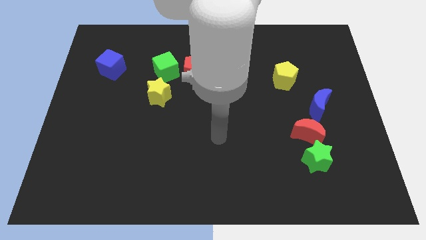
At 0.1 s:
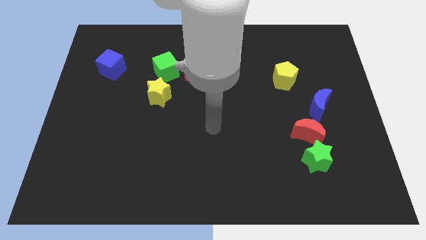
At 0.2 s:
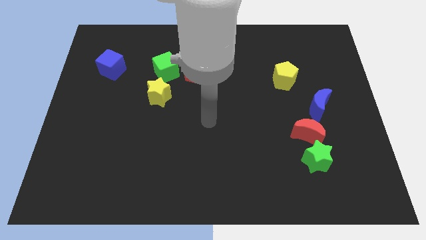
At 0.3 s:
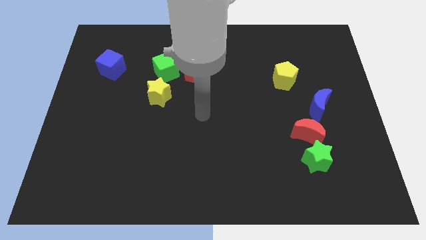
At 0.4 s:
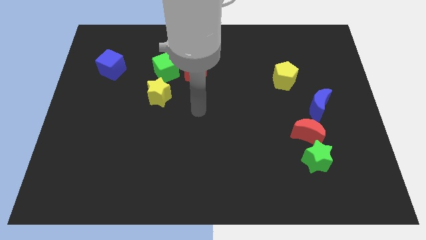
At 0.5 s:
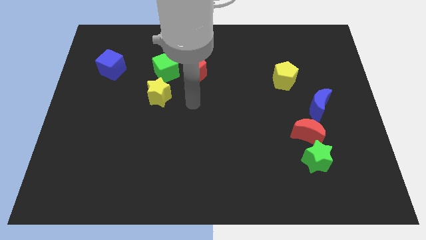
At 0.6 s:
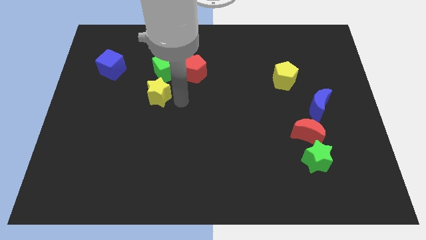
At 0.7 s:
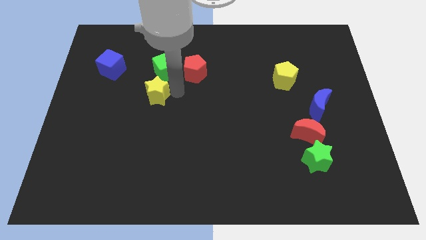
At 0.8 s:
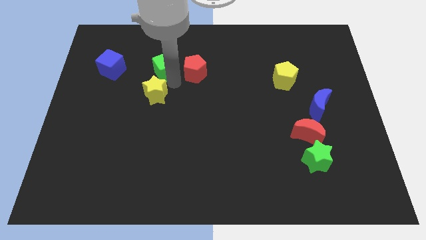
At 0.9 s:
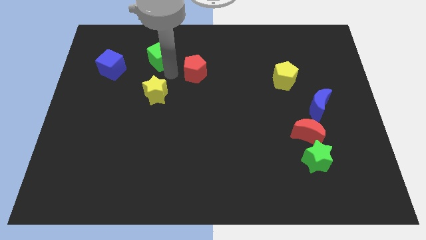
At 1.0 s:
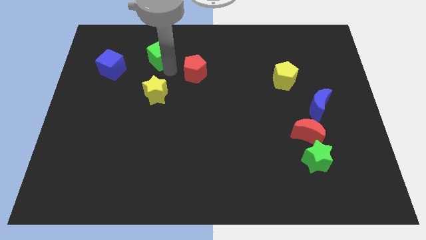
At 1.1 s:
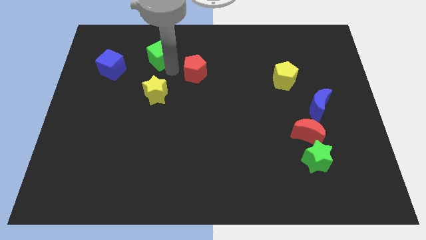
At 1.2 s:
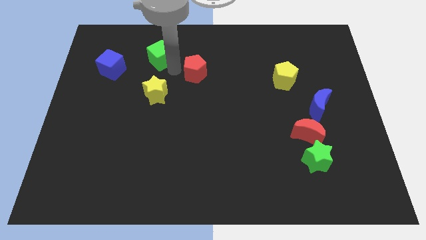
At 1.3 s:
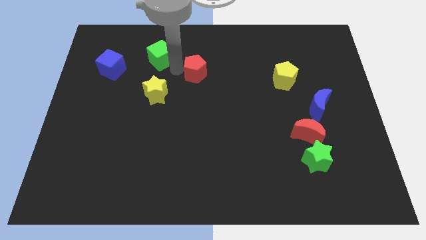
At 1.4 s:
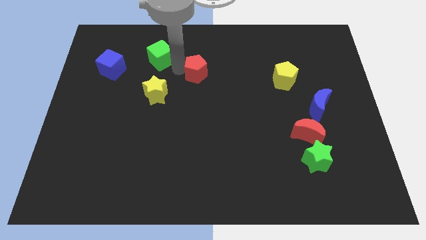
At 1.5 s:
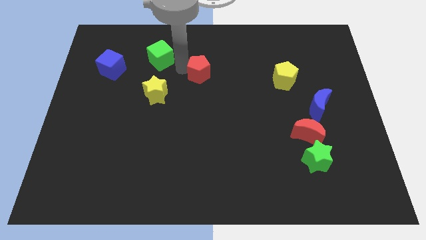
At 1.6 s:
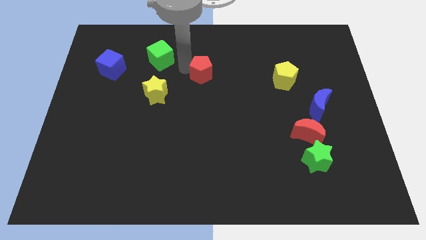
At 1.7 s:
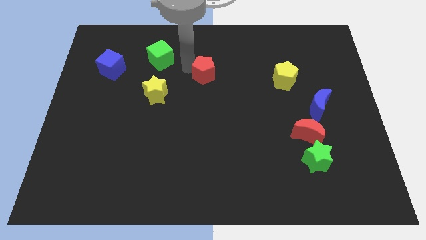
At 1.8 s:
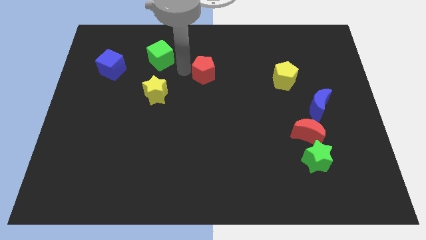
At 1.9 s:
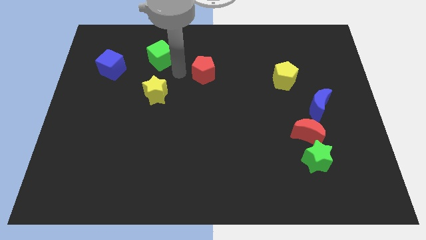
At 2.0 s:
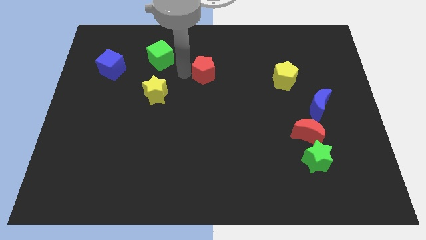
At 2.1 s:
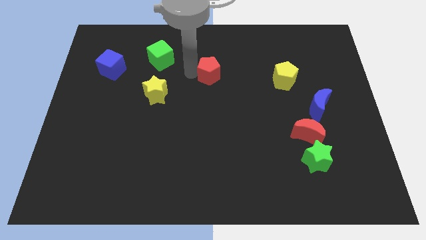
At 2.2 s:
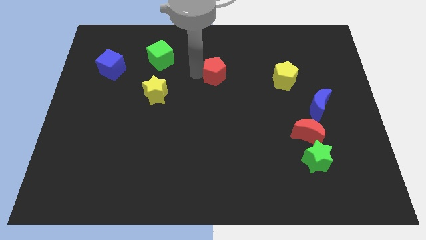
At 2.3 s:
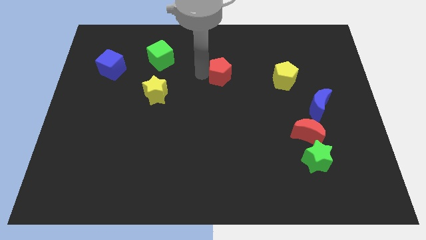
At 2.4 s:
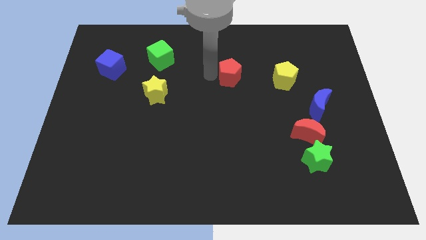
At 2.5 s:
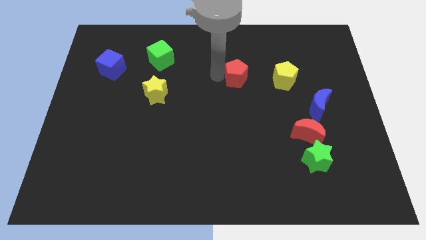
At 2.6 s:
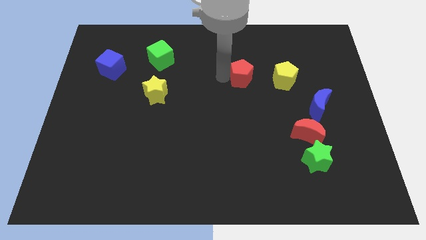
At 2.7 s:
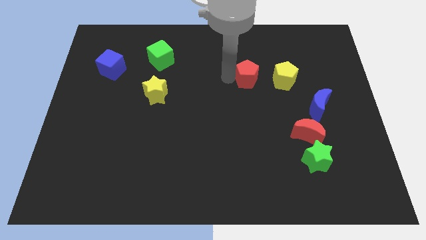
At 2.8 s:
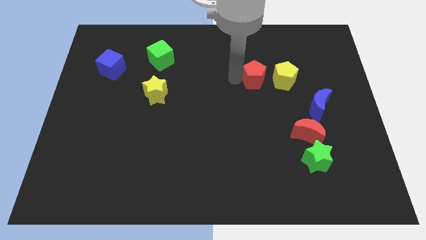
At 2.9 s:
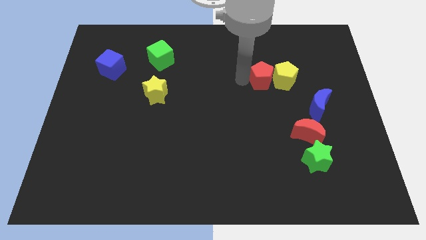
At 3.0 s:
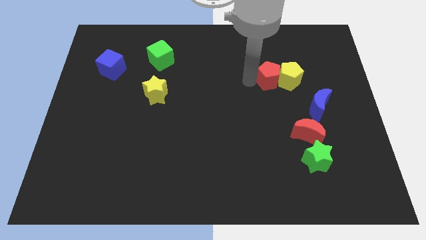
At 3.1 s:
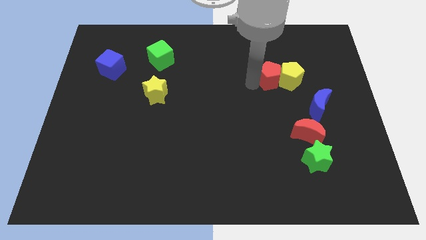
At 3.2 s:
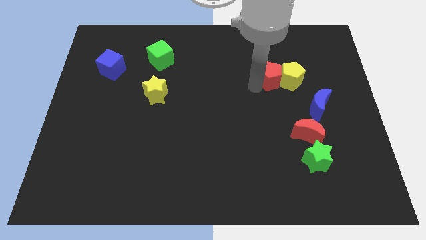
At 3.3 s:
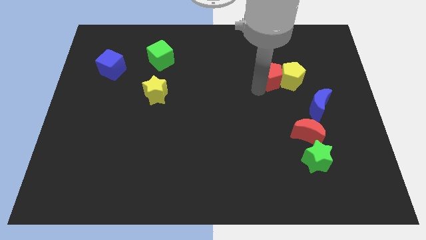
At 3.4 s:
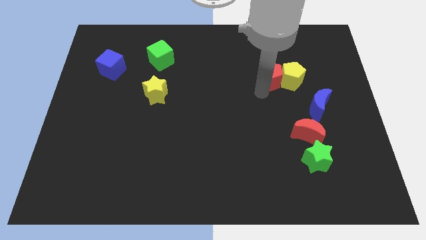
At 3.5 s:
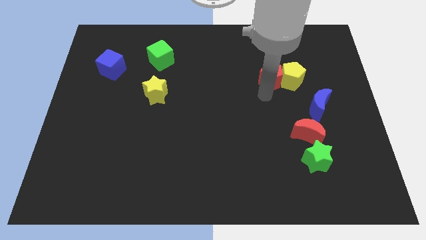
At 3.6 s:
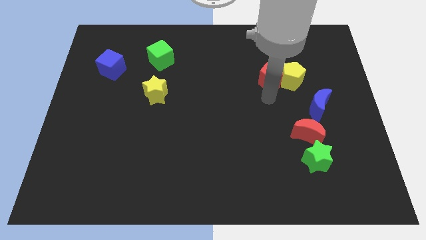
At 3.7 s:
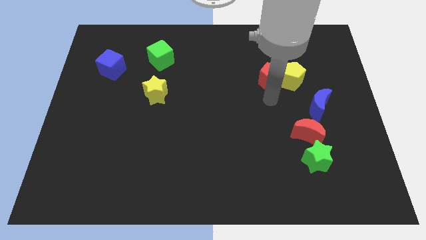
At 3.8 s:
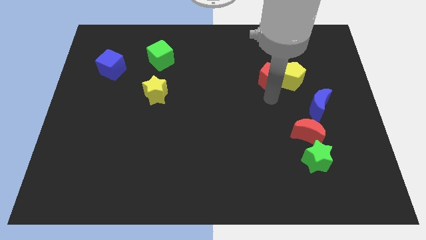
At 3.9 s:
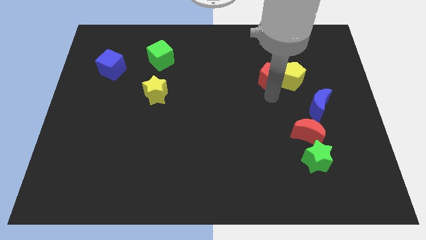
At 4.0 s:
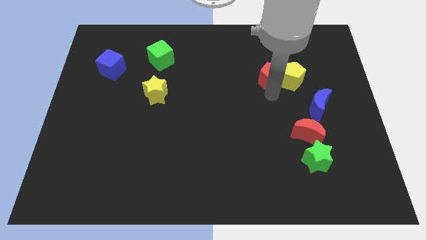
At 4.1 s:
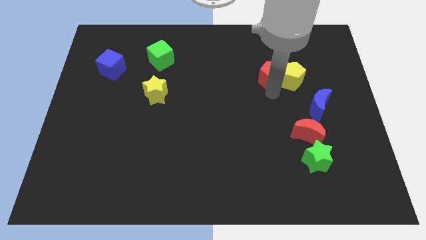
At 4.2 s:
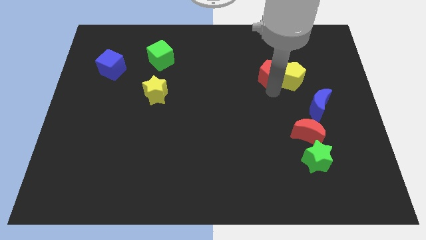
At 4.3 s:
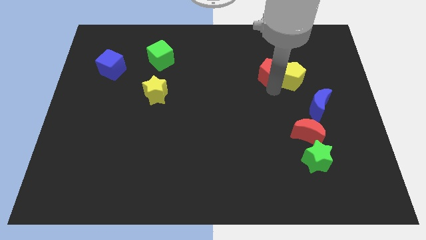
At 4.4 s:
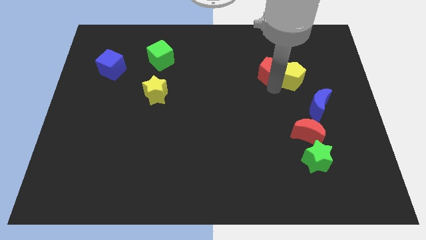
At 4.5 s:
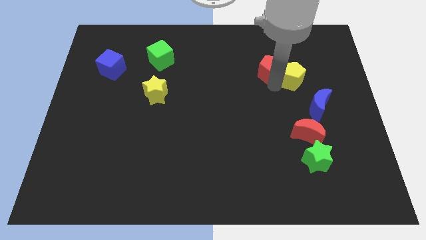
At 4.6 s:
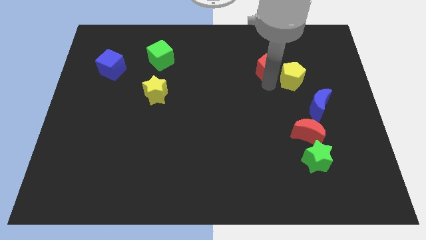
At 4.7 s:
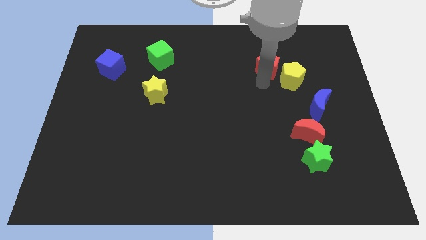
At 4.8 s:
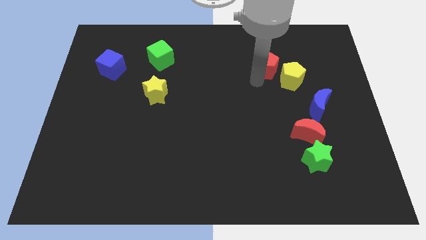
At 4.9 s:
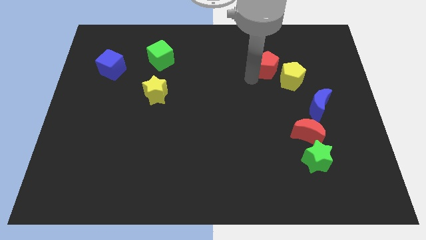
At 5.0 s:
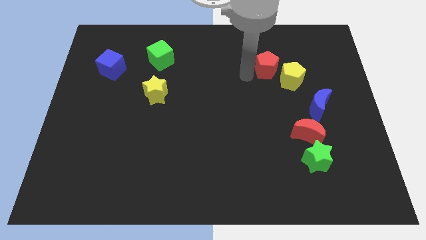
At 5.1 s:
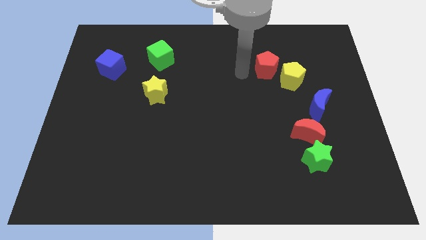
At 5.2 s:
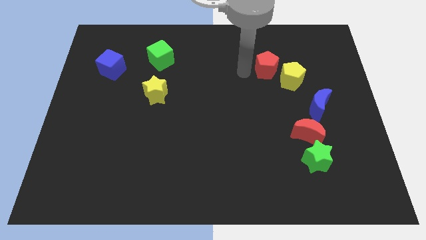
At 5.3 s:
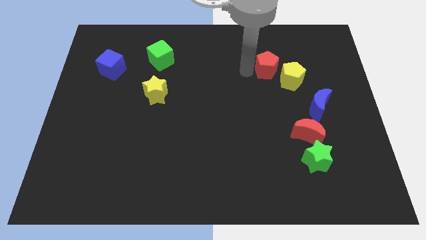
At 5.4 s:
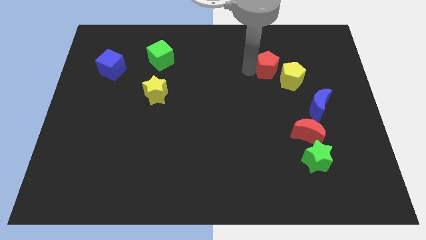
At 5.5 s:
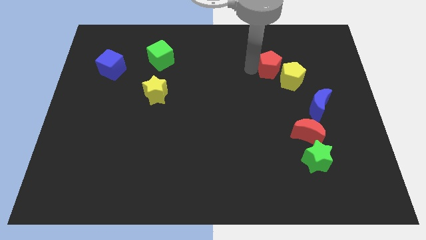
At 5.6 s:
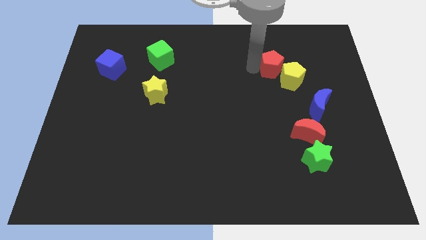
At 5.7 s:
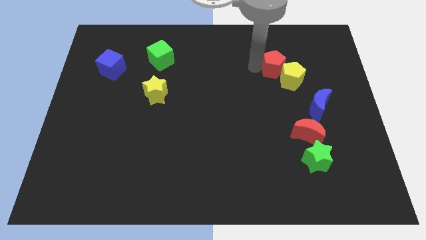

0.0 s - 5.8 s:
slide the red pentagon to the right

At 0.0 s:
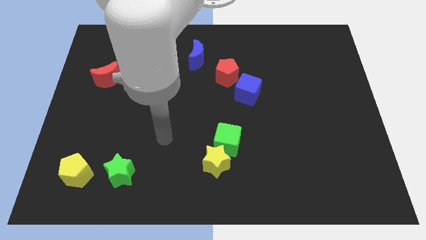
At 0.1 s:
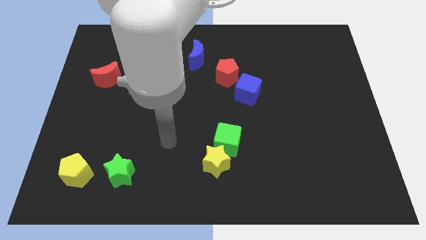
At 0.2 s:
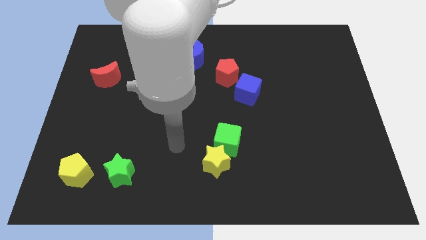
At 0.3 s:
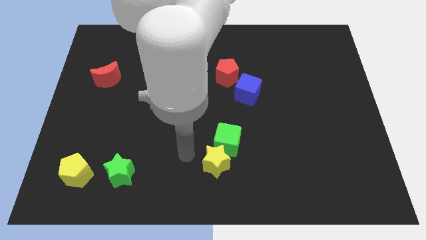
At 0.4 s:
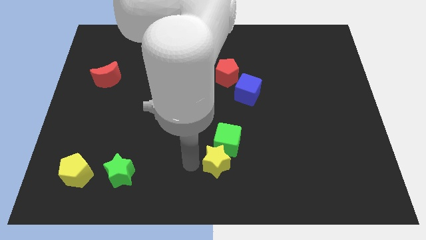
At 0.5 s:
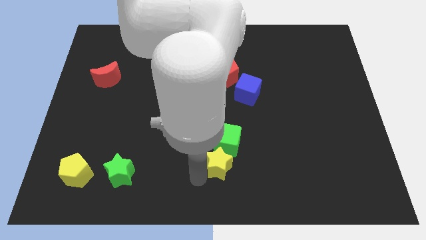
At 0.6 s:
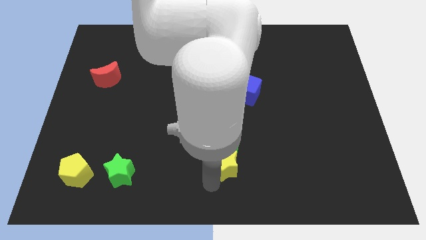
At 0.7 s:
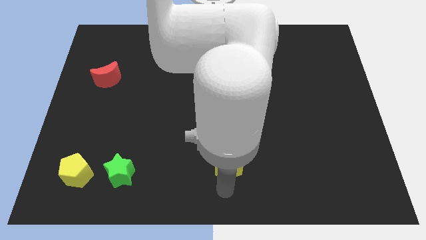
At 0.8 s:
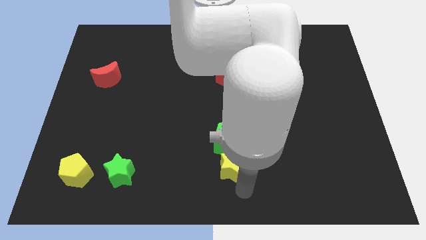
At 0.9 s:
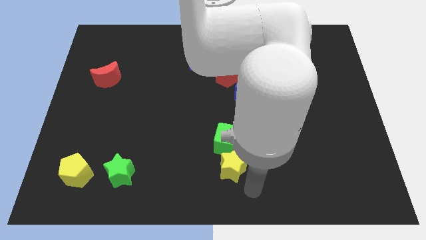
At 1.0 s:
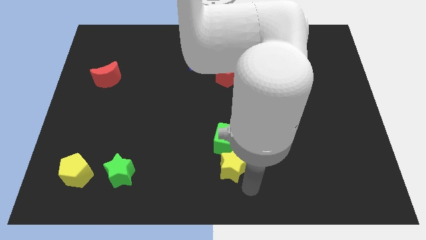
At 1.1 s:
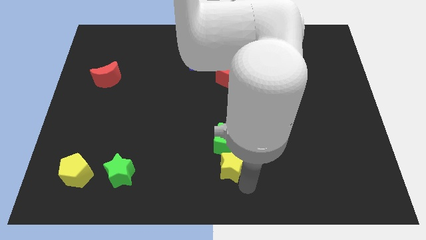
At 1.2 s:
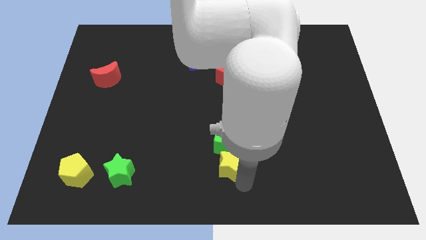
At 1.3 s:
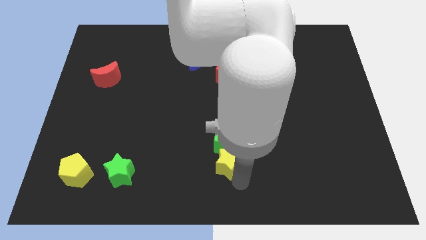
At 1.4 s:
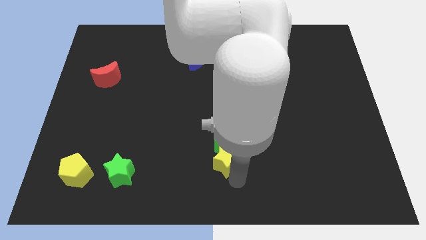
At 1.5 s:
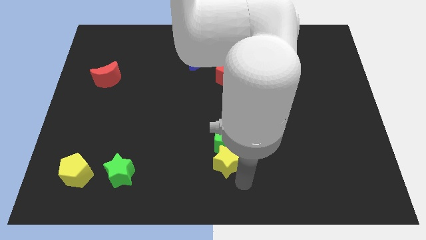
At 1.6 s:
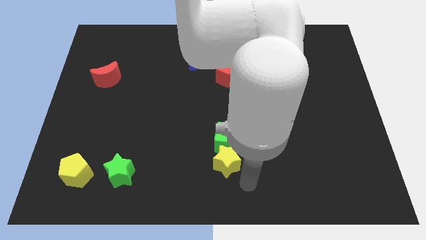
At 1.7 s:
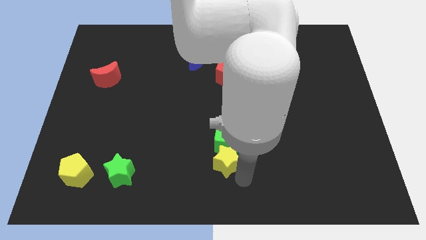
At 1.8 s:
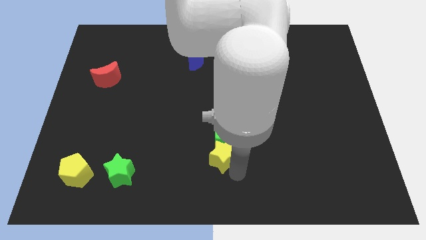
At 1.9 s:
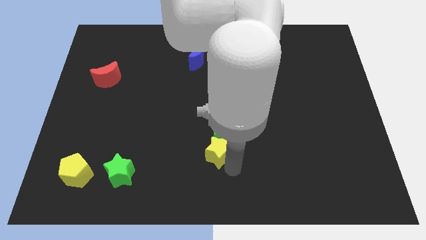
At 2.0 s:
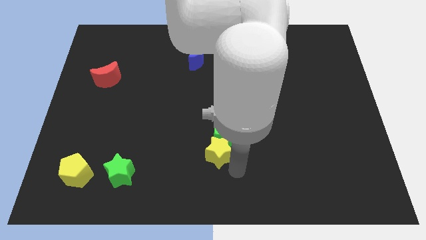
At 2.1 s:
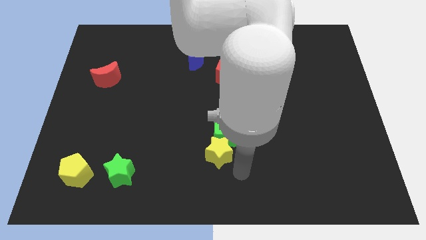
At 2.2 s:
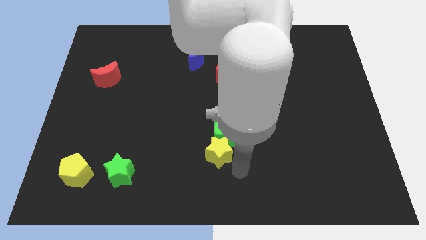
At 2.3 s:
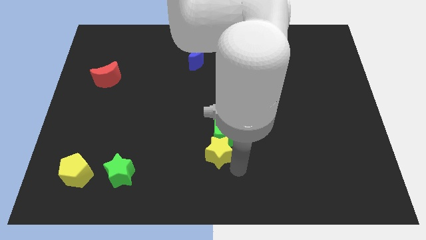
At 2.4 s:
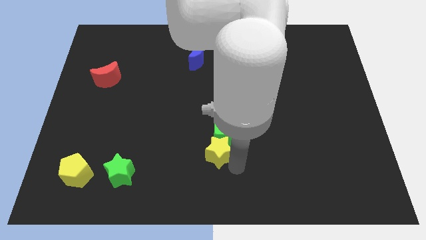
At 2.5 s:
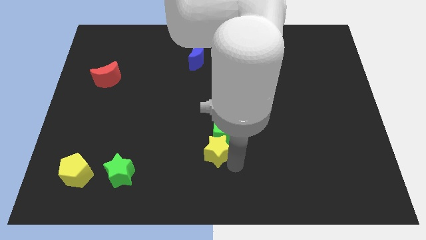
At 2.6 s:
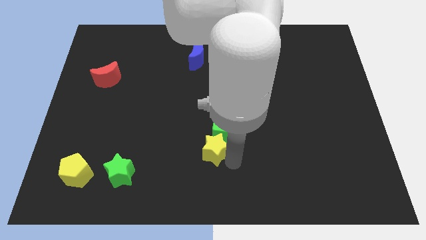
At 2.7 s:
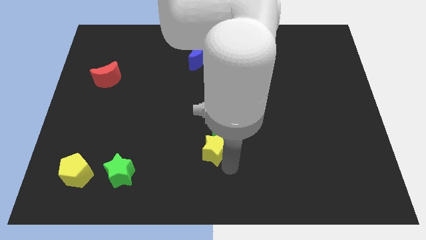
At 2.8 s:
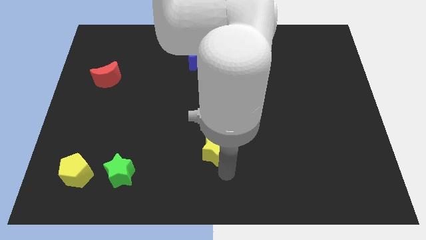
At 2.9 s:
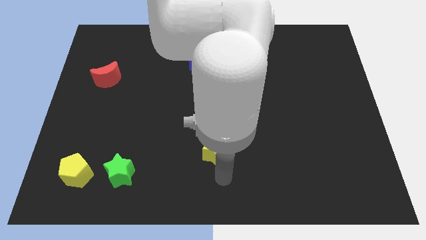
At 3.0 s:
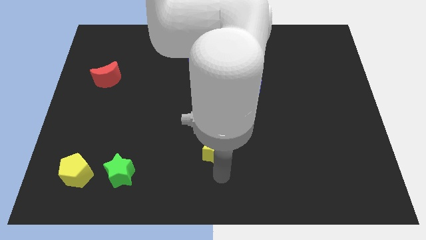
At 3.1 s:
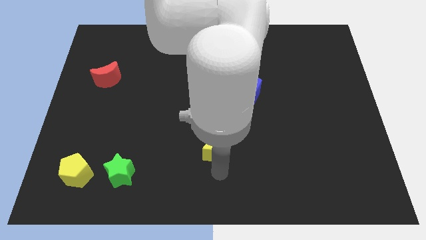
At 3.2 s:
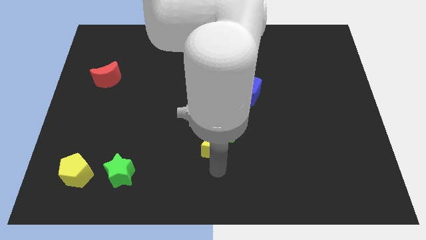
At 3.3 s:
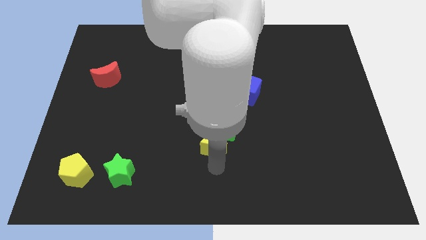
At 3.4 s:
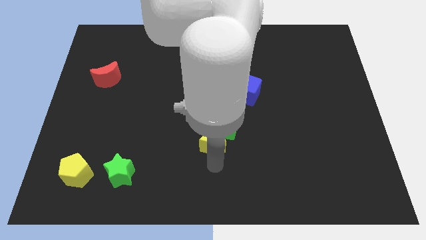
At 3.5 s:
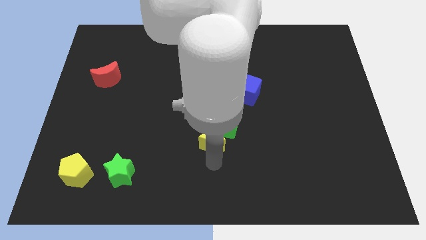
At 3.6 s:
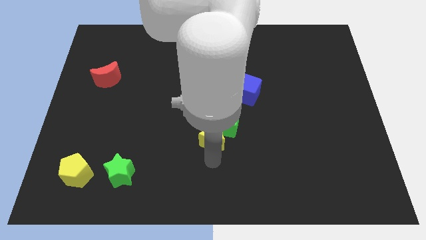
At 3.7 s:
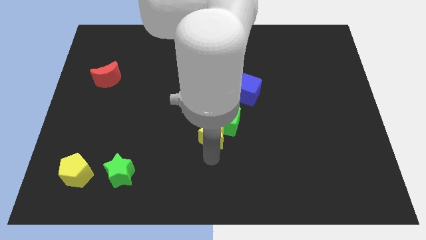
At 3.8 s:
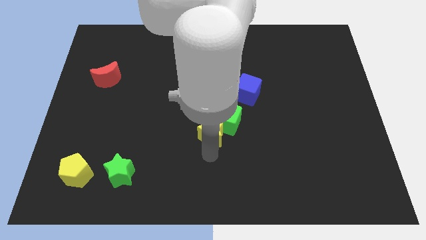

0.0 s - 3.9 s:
slightly slide the yellow star upwards
